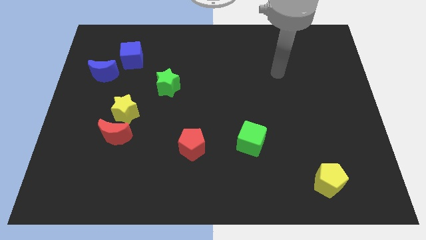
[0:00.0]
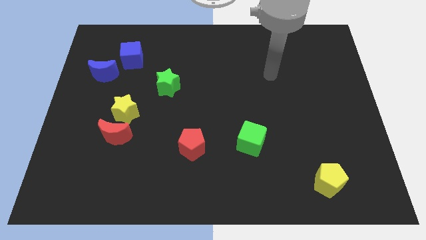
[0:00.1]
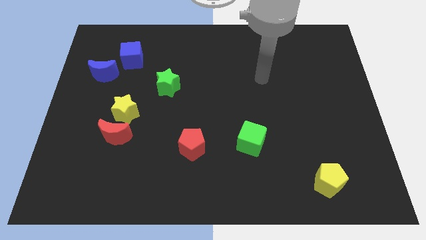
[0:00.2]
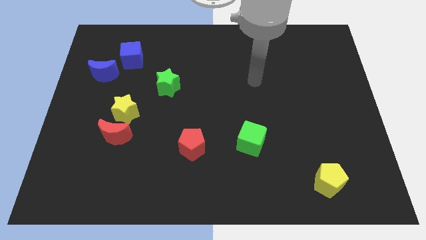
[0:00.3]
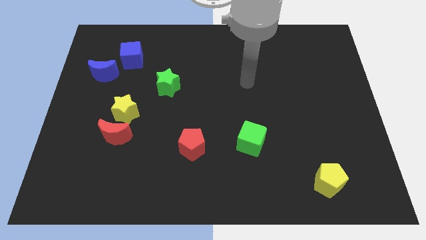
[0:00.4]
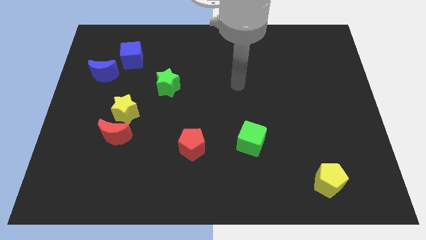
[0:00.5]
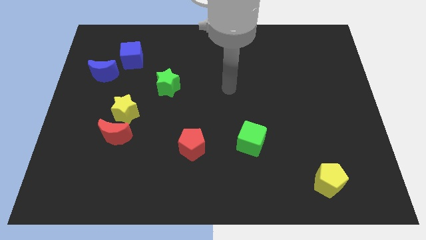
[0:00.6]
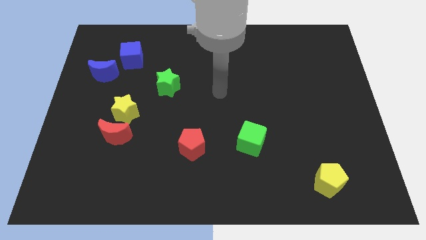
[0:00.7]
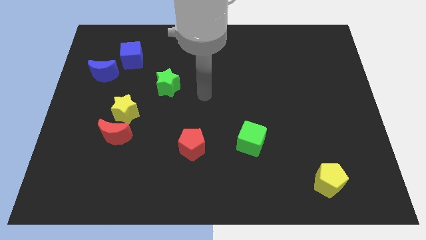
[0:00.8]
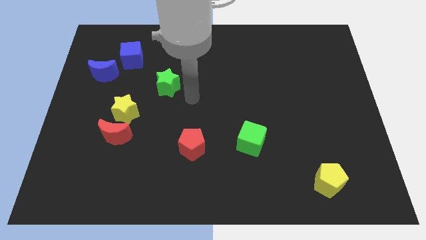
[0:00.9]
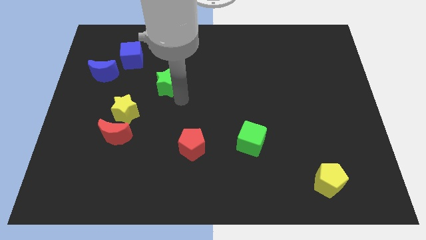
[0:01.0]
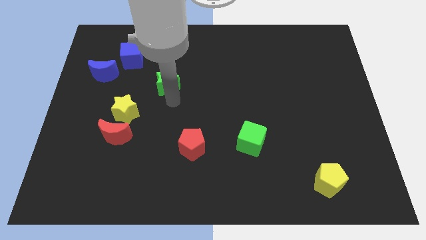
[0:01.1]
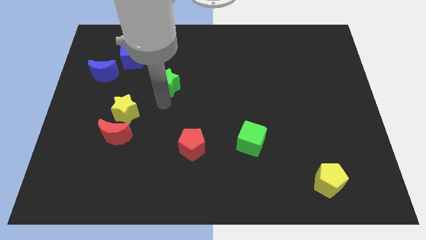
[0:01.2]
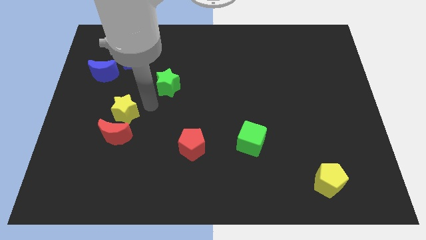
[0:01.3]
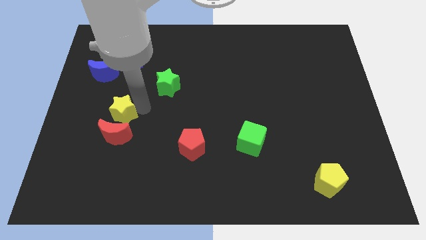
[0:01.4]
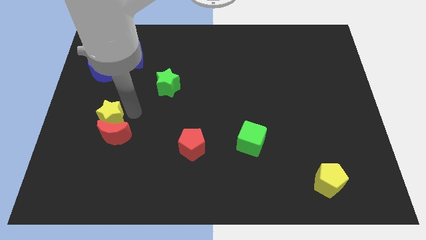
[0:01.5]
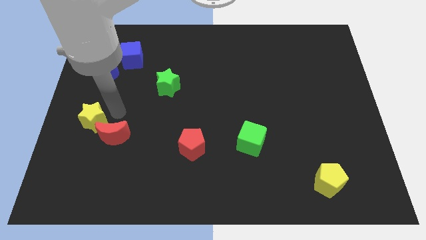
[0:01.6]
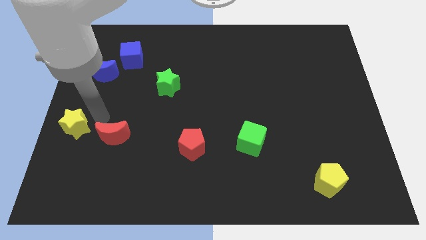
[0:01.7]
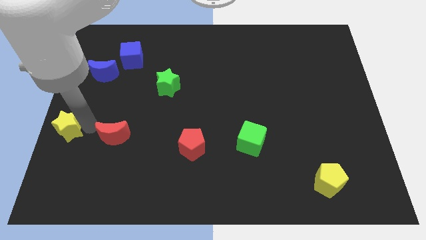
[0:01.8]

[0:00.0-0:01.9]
separate the red moon from the yellow star

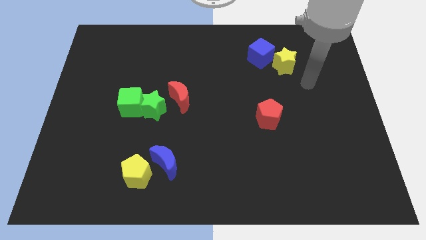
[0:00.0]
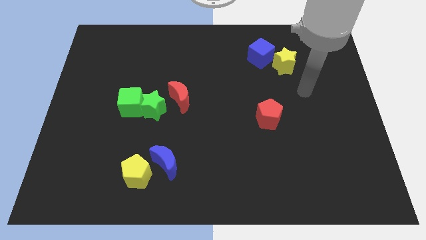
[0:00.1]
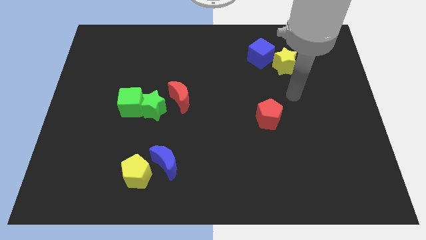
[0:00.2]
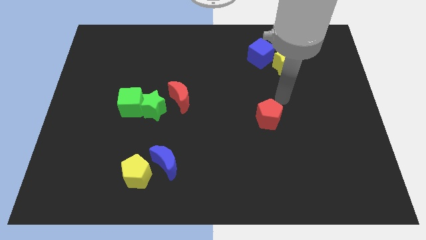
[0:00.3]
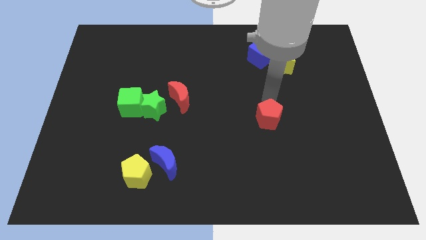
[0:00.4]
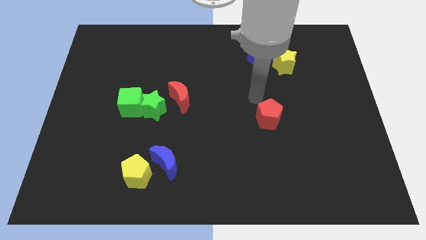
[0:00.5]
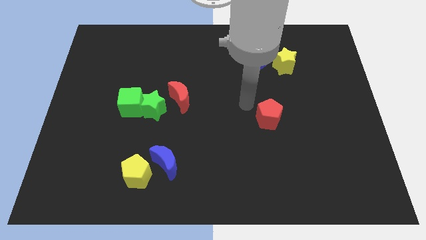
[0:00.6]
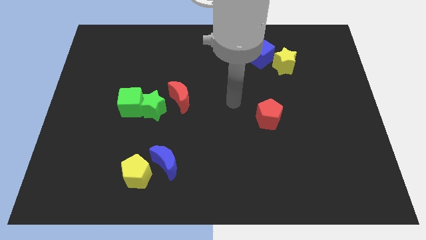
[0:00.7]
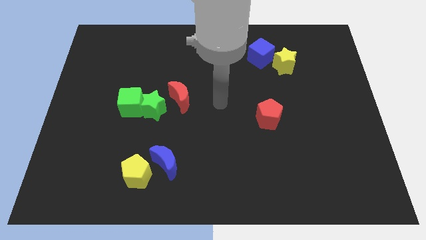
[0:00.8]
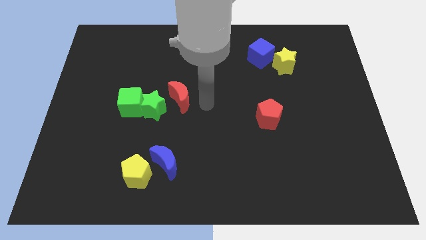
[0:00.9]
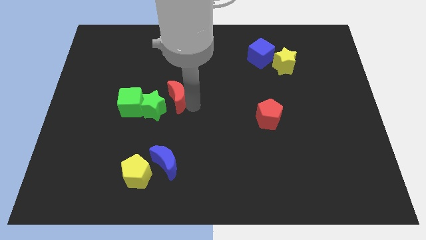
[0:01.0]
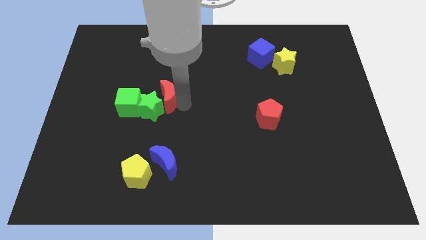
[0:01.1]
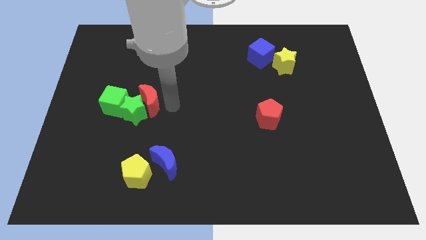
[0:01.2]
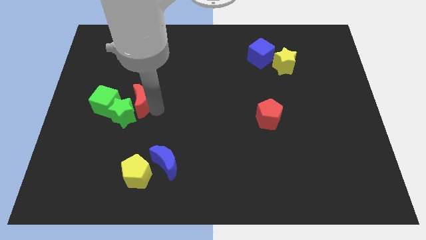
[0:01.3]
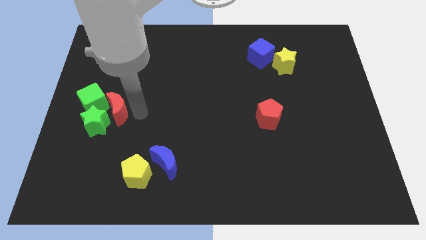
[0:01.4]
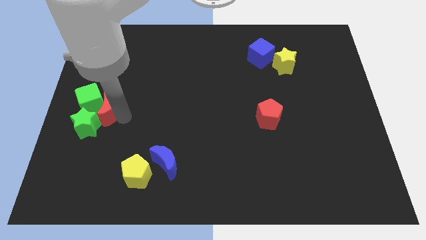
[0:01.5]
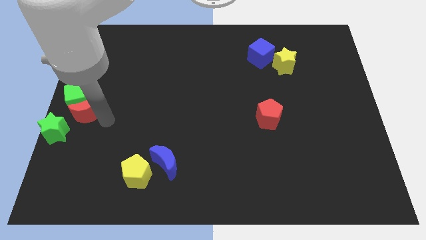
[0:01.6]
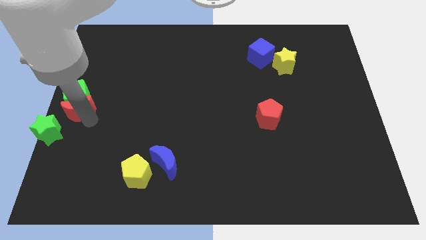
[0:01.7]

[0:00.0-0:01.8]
separate the green cube from the green star

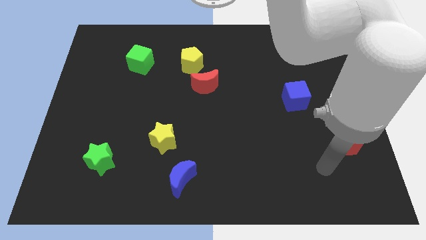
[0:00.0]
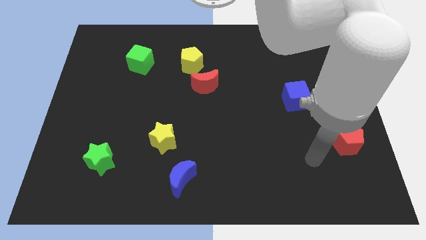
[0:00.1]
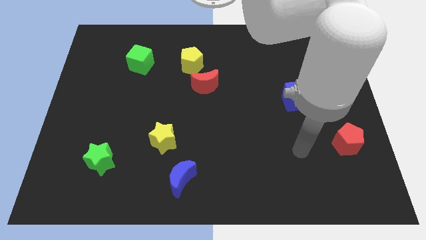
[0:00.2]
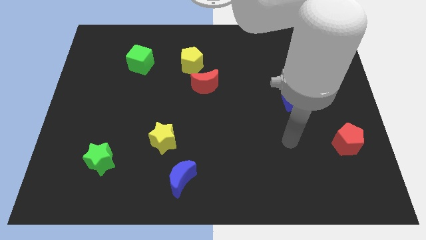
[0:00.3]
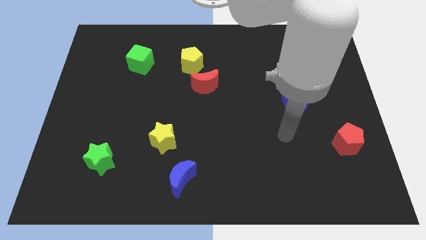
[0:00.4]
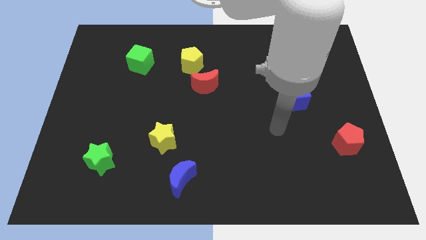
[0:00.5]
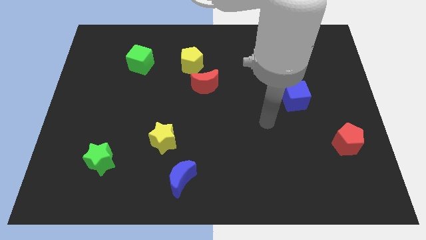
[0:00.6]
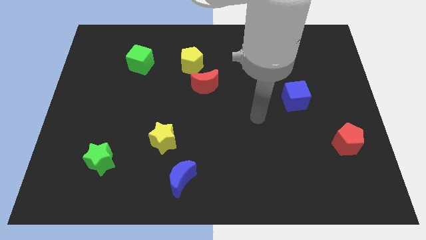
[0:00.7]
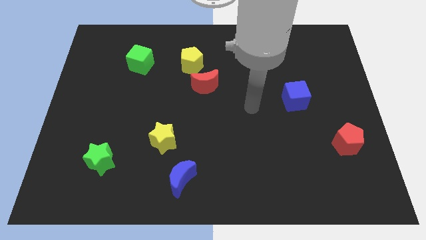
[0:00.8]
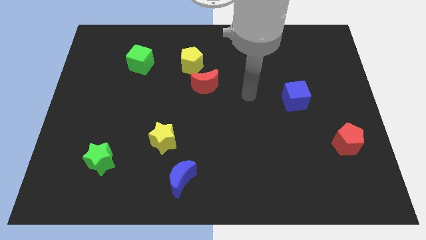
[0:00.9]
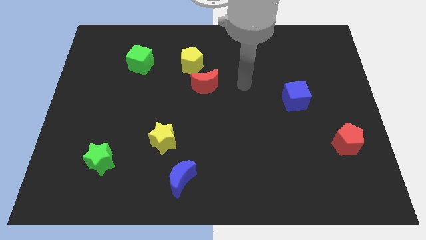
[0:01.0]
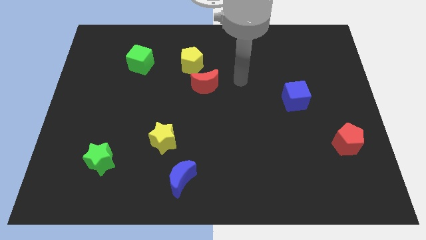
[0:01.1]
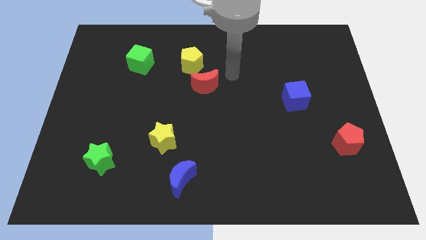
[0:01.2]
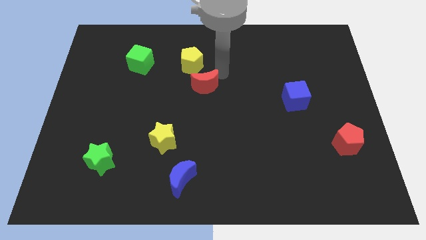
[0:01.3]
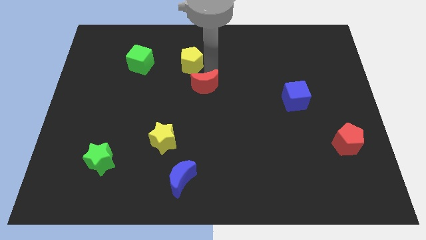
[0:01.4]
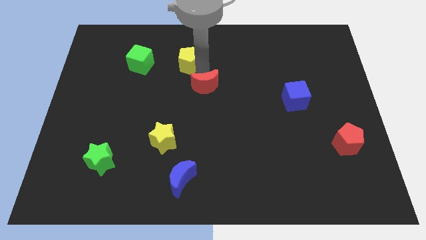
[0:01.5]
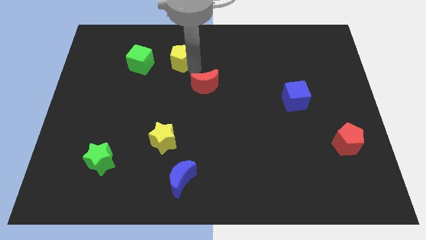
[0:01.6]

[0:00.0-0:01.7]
pull the red moon apart from the yellow pentagon

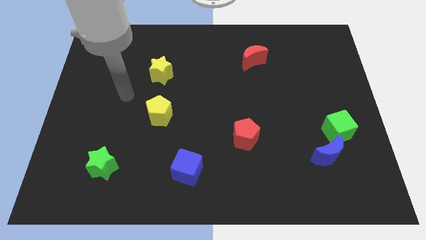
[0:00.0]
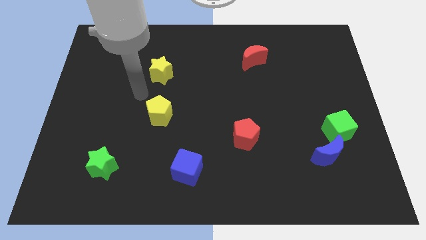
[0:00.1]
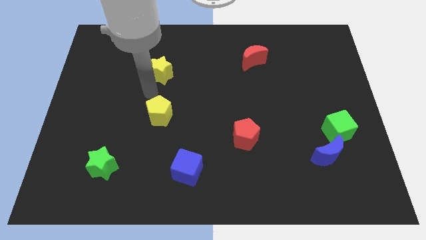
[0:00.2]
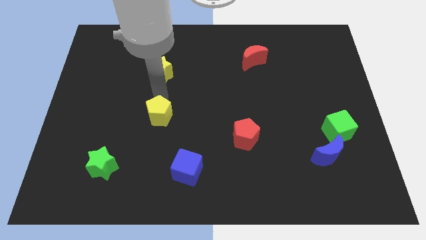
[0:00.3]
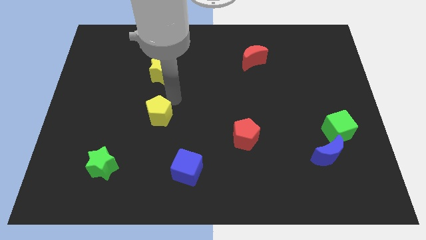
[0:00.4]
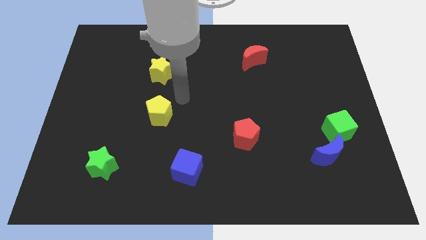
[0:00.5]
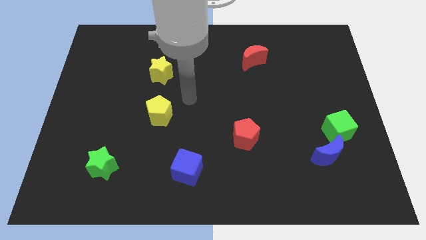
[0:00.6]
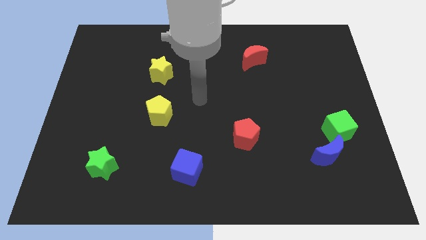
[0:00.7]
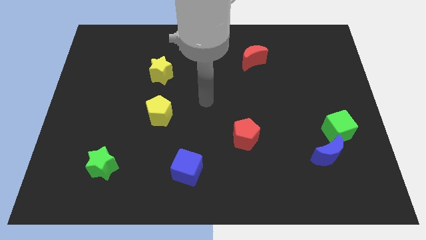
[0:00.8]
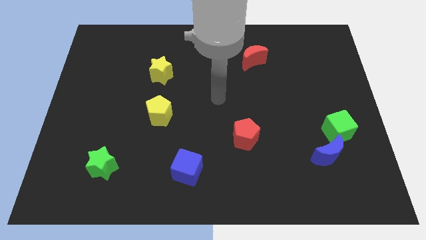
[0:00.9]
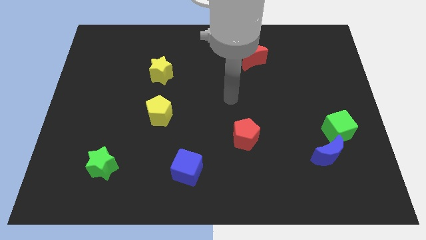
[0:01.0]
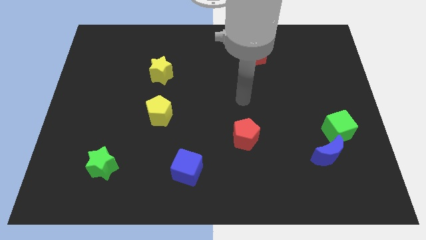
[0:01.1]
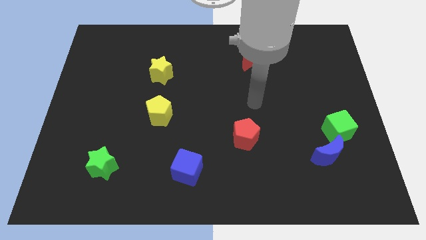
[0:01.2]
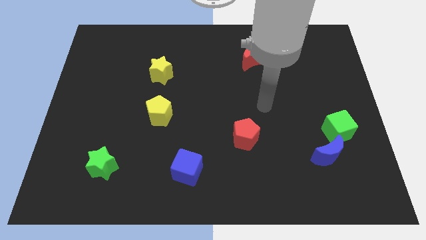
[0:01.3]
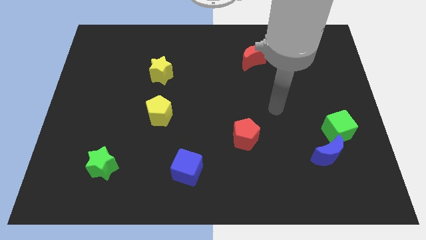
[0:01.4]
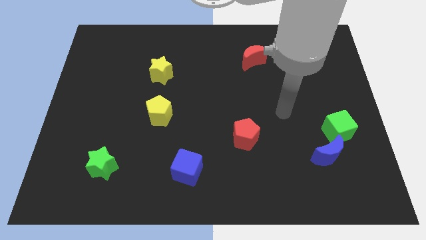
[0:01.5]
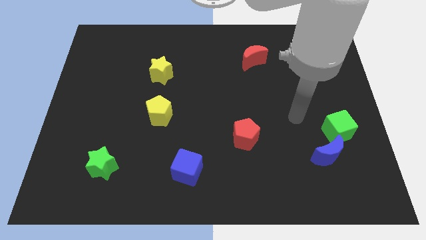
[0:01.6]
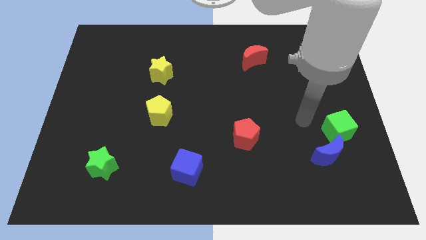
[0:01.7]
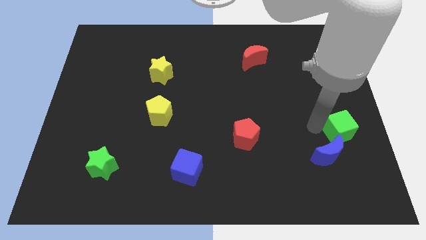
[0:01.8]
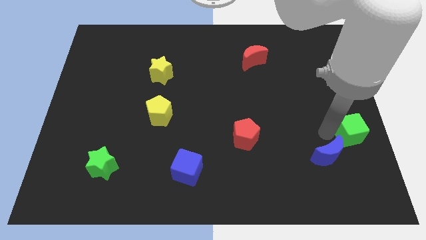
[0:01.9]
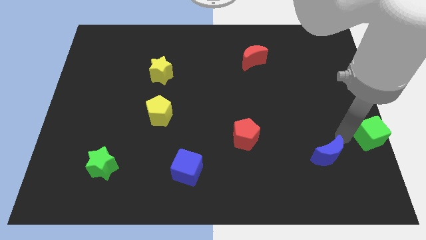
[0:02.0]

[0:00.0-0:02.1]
pull the blue moon apart from the green cube

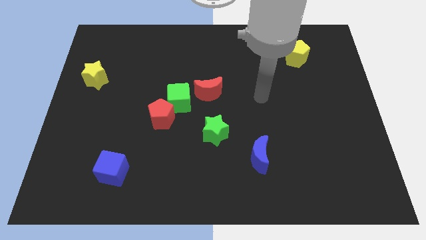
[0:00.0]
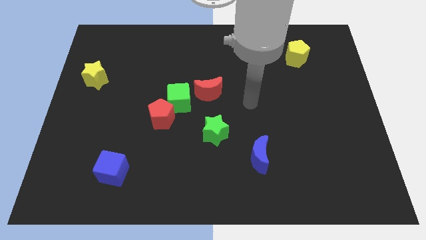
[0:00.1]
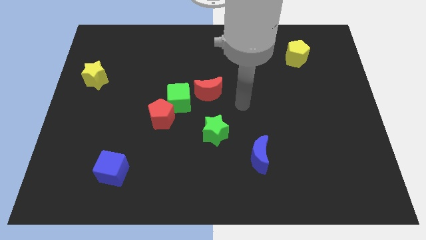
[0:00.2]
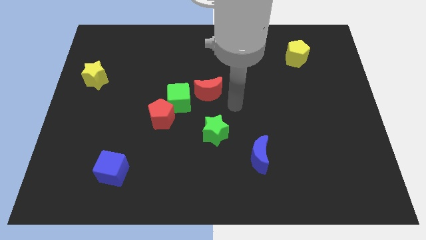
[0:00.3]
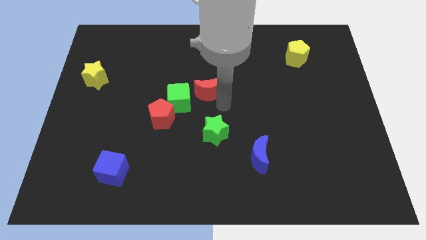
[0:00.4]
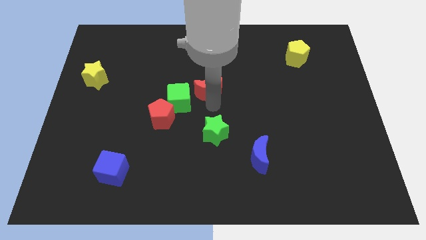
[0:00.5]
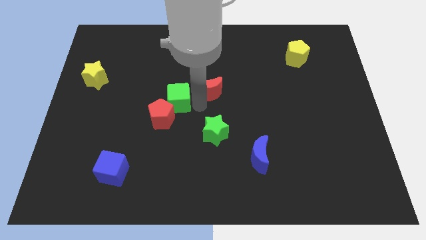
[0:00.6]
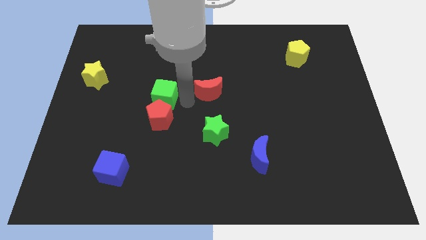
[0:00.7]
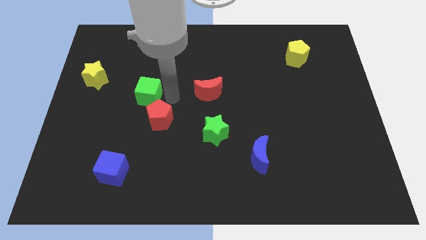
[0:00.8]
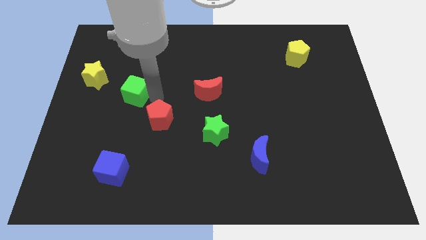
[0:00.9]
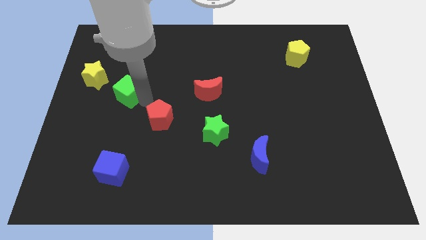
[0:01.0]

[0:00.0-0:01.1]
separate the red pentagon from the green cube

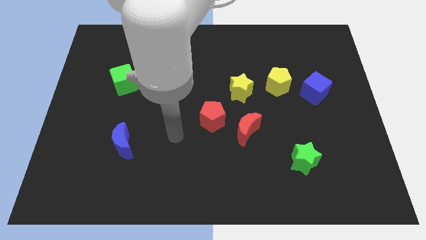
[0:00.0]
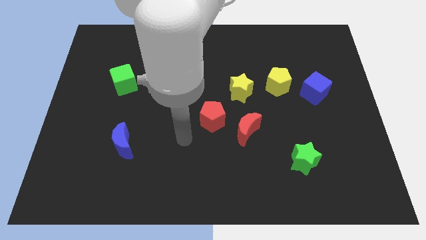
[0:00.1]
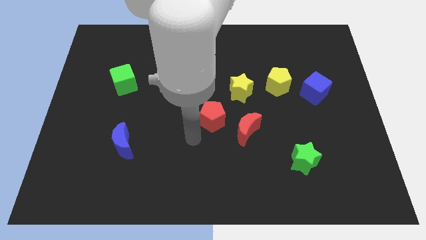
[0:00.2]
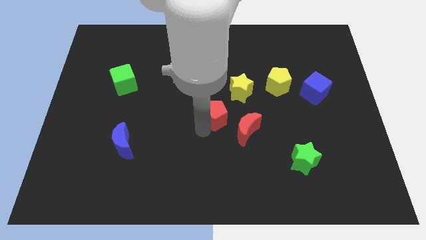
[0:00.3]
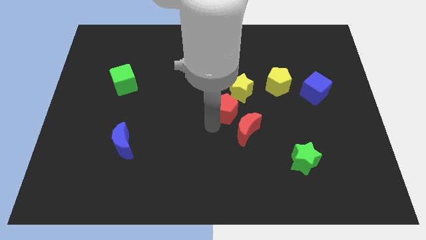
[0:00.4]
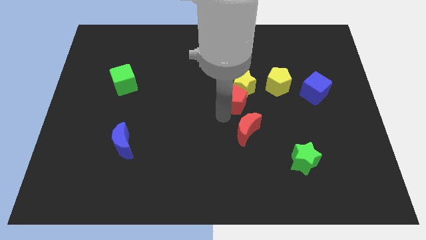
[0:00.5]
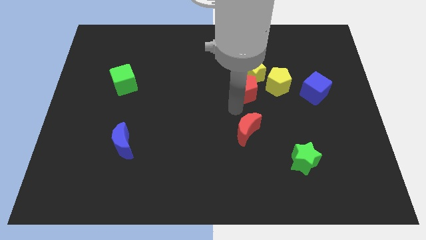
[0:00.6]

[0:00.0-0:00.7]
separate the red moon from the red pentagon
